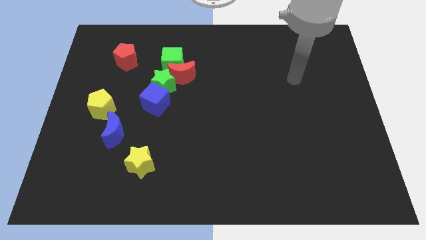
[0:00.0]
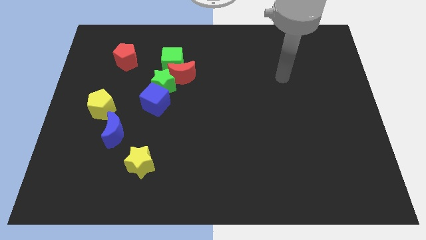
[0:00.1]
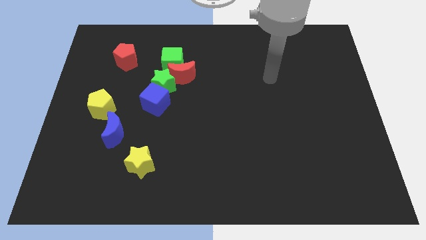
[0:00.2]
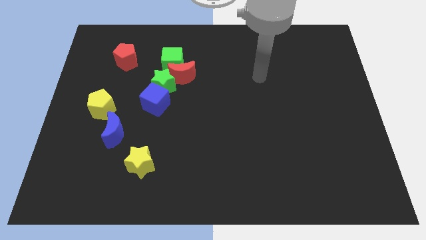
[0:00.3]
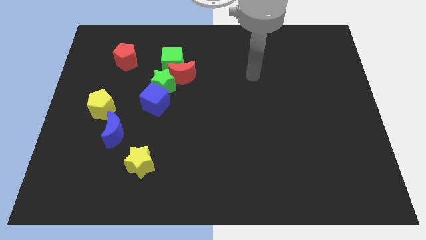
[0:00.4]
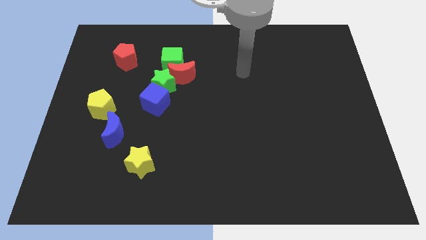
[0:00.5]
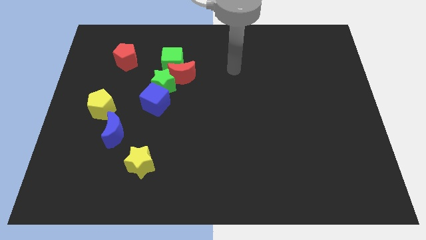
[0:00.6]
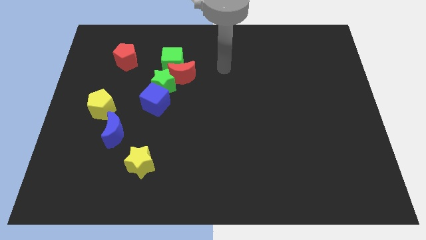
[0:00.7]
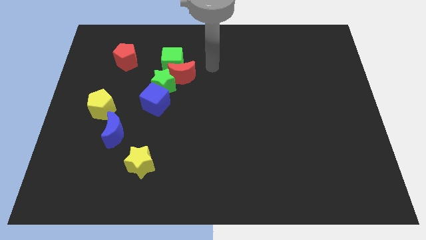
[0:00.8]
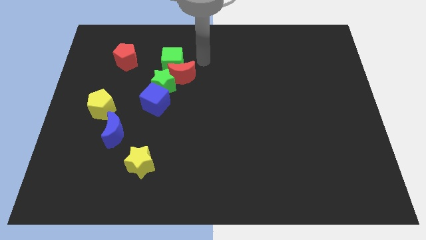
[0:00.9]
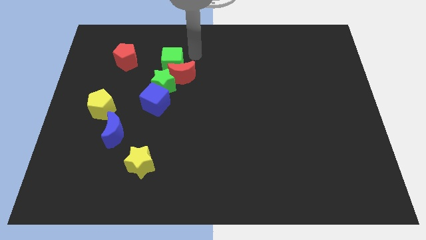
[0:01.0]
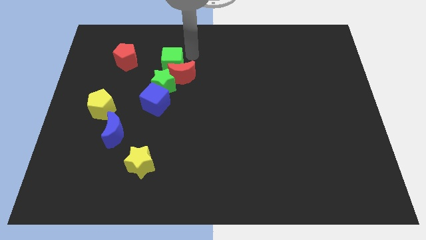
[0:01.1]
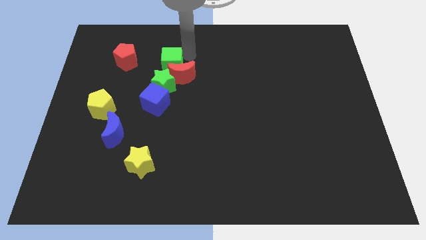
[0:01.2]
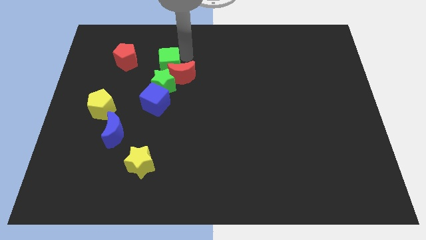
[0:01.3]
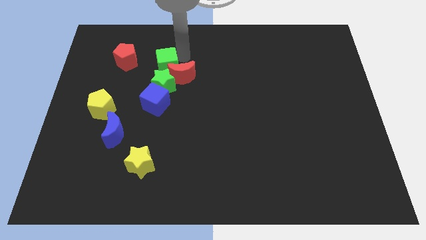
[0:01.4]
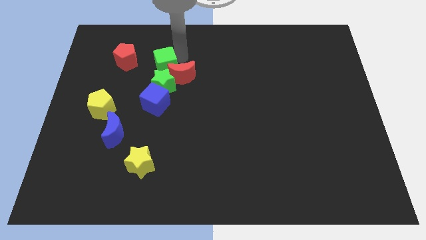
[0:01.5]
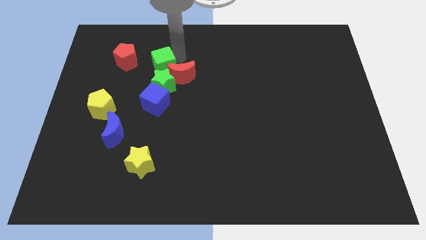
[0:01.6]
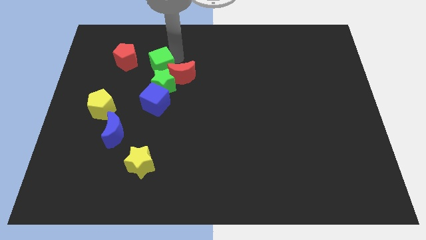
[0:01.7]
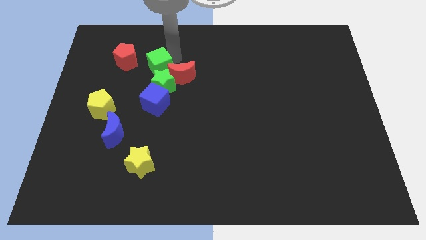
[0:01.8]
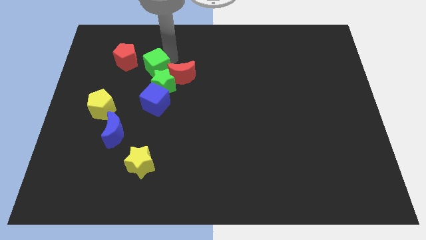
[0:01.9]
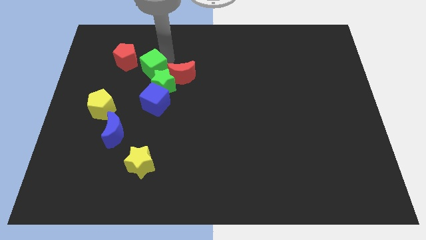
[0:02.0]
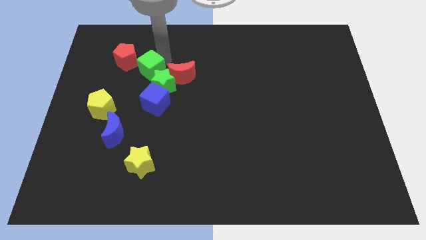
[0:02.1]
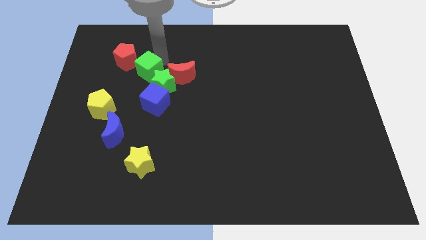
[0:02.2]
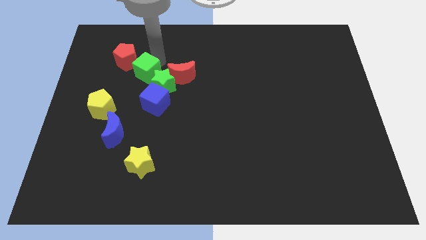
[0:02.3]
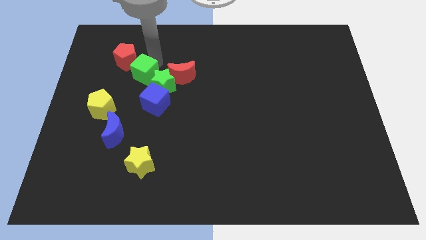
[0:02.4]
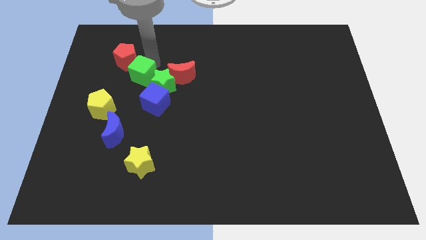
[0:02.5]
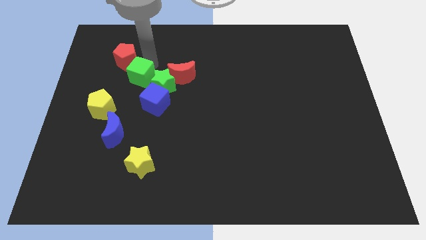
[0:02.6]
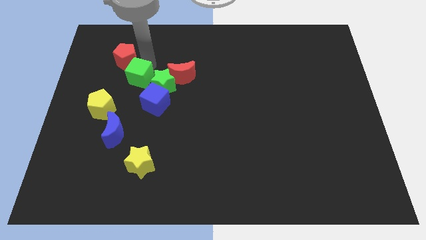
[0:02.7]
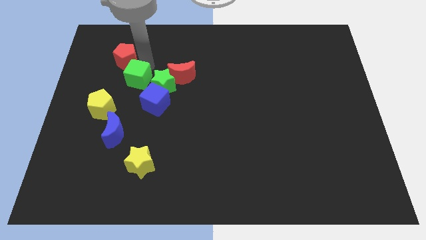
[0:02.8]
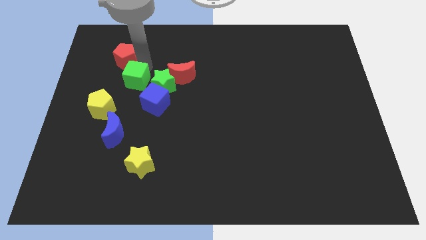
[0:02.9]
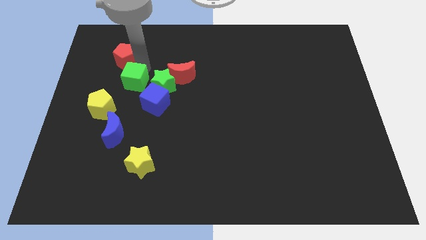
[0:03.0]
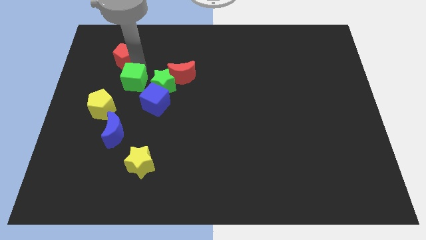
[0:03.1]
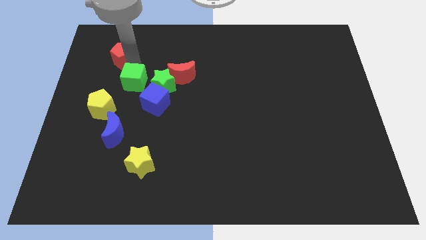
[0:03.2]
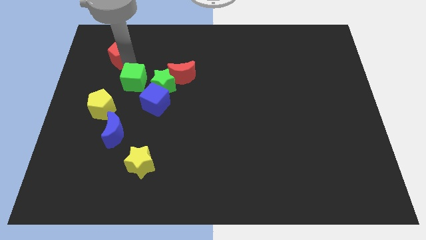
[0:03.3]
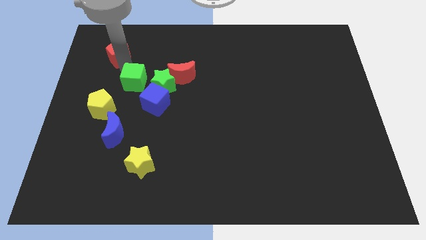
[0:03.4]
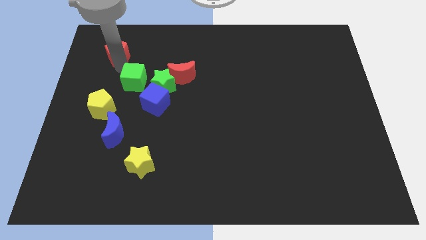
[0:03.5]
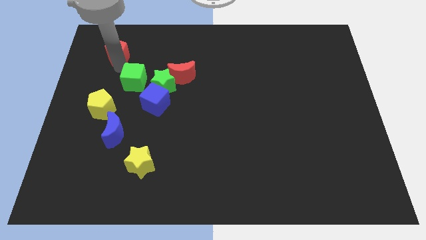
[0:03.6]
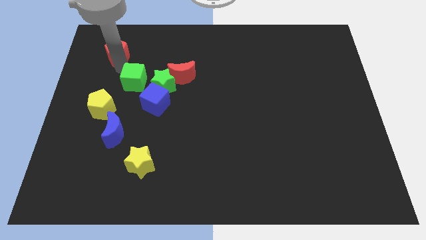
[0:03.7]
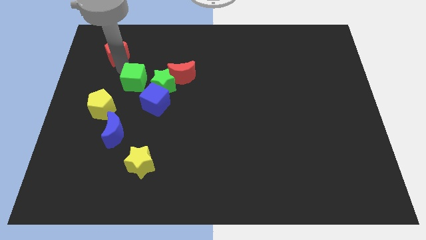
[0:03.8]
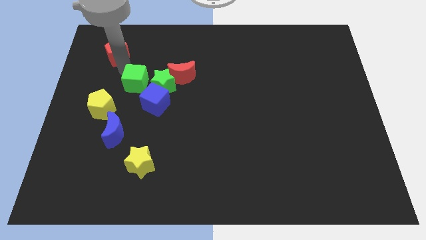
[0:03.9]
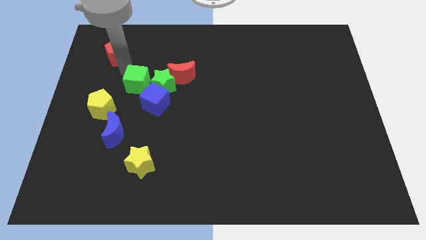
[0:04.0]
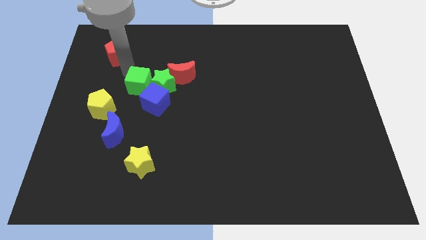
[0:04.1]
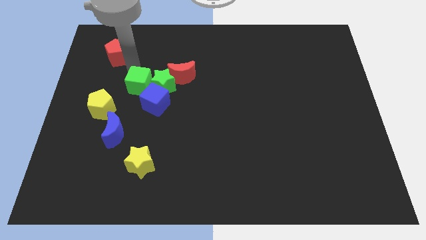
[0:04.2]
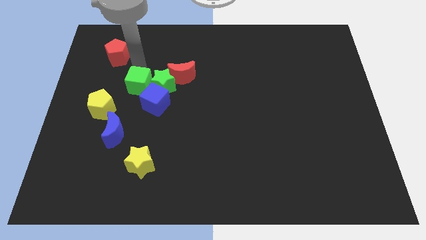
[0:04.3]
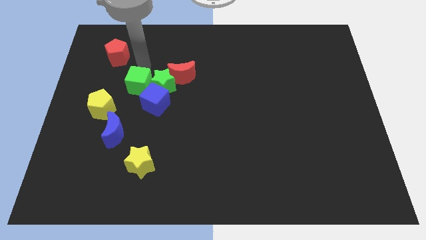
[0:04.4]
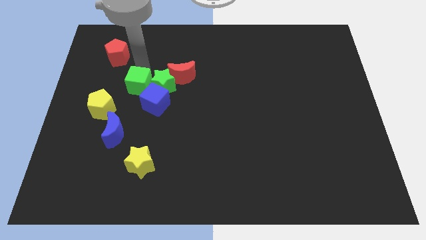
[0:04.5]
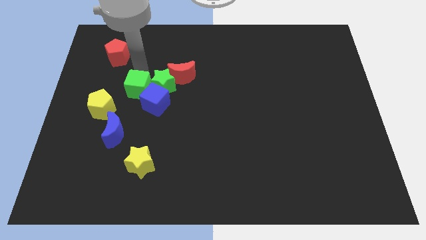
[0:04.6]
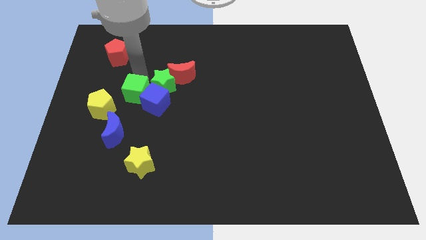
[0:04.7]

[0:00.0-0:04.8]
move the green cube down a bit

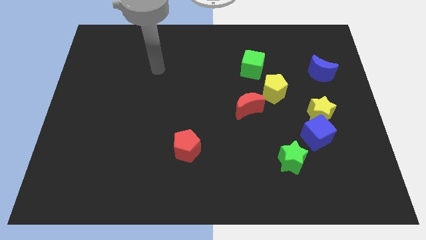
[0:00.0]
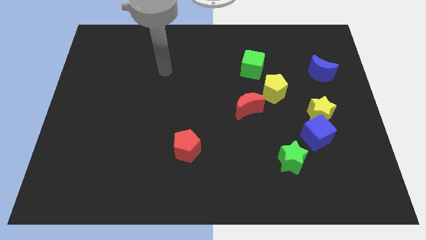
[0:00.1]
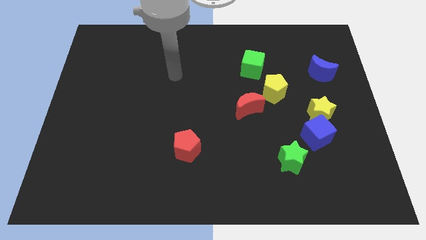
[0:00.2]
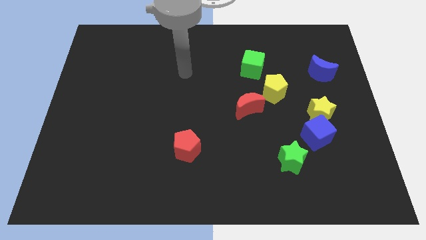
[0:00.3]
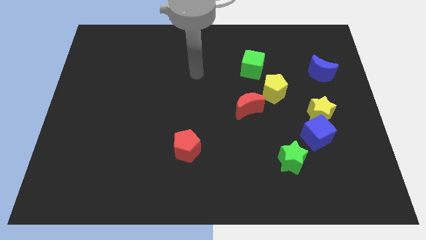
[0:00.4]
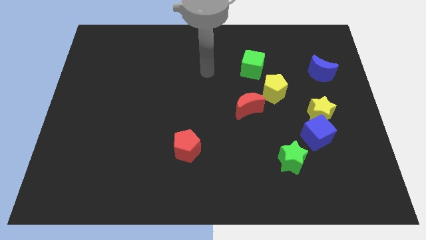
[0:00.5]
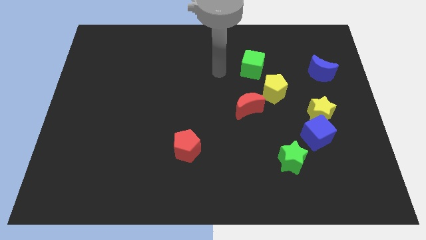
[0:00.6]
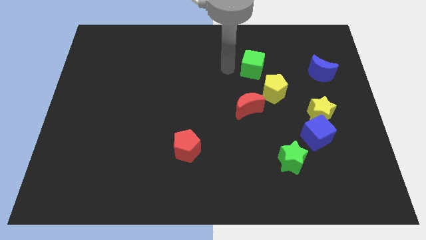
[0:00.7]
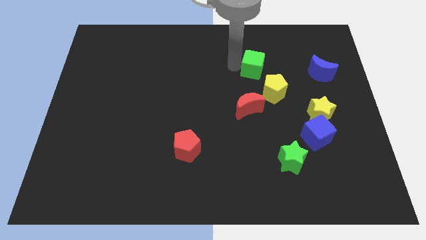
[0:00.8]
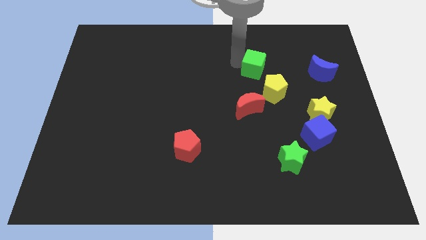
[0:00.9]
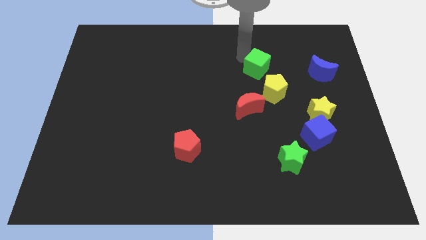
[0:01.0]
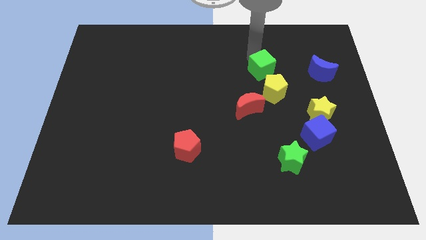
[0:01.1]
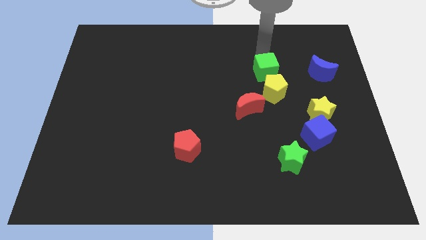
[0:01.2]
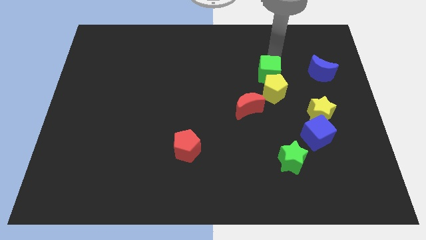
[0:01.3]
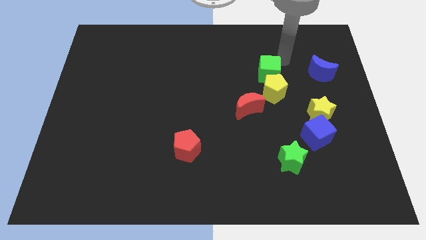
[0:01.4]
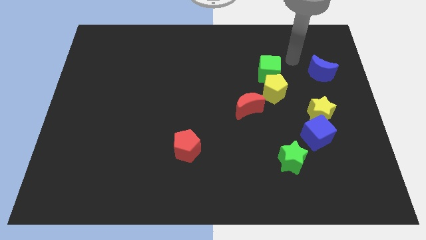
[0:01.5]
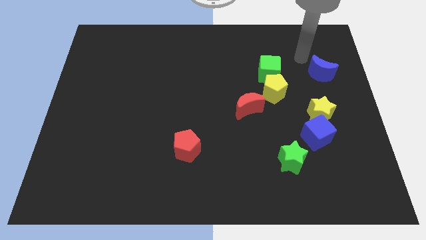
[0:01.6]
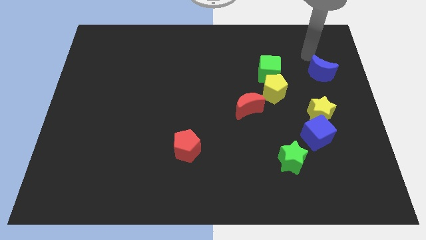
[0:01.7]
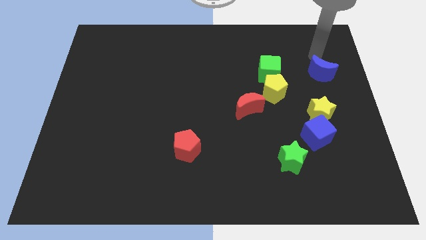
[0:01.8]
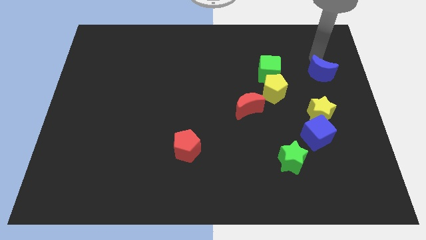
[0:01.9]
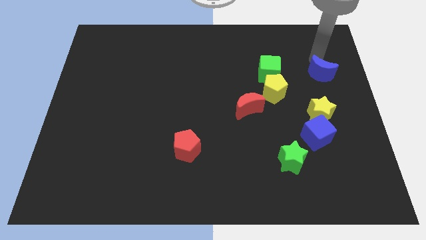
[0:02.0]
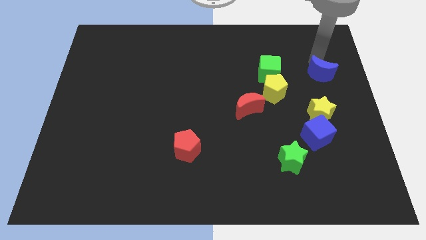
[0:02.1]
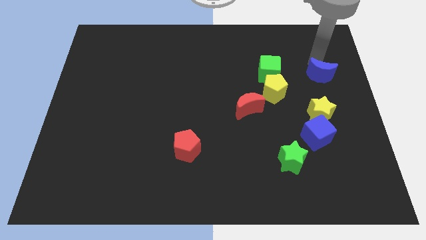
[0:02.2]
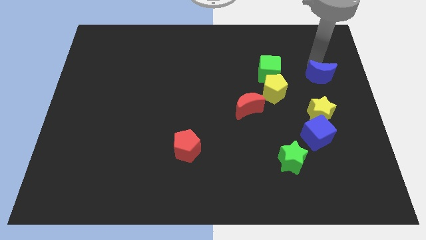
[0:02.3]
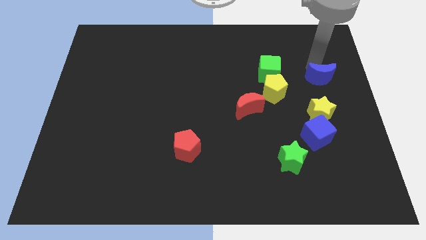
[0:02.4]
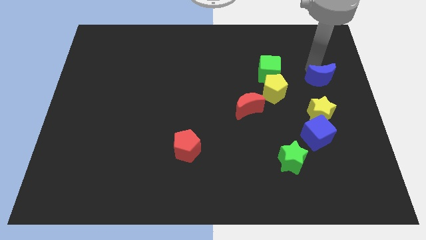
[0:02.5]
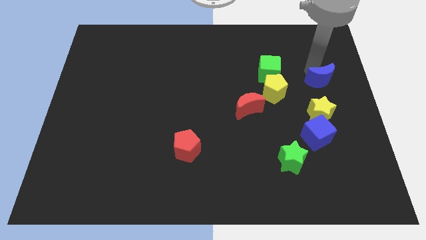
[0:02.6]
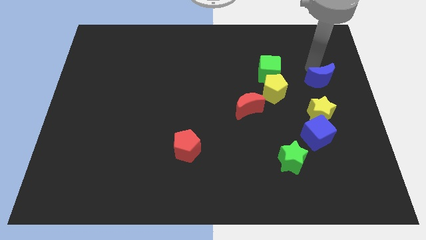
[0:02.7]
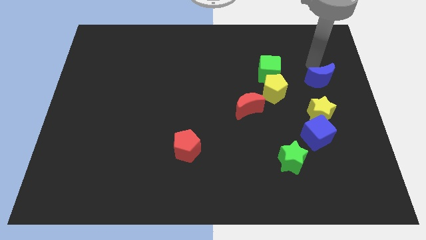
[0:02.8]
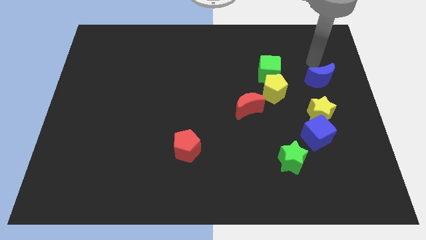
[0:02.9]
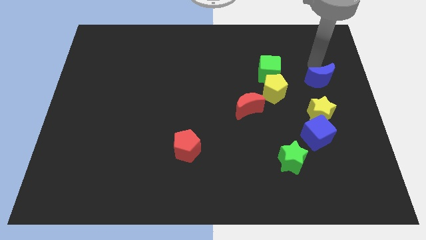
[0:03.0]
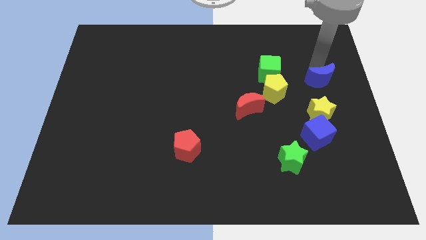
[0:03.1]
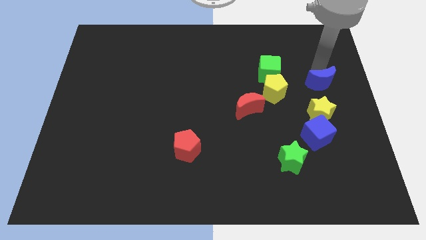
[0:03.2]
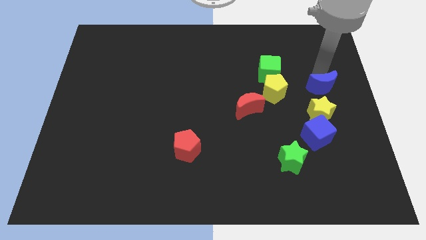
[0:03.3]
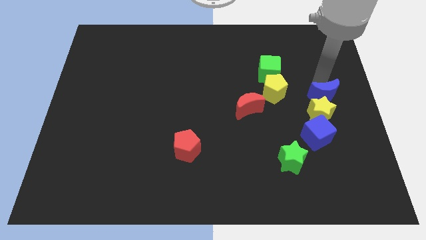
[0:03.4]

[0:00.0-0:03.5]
push the blue moon a bit down
